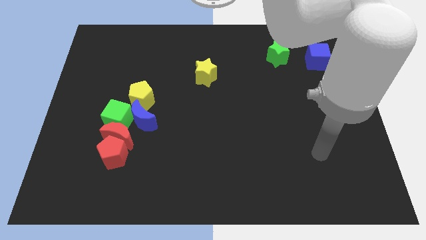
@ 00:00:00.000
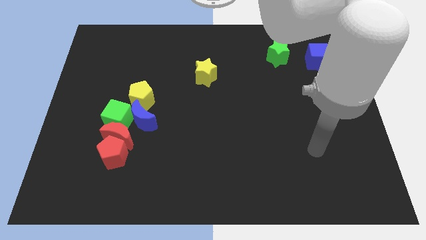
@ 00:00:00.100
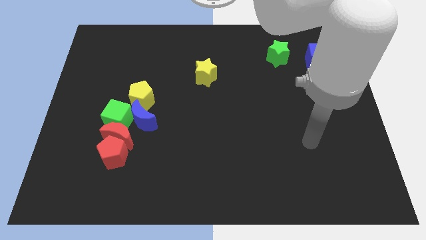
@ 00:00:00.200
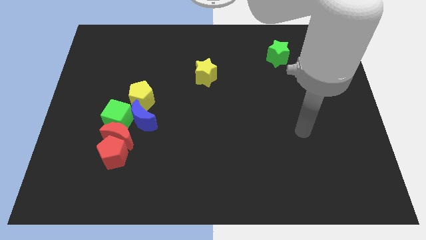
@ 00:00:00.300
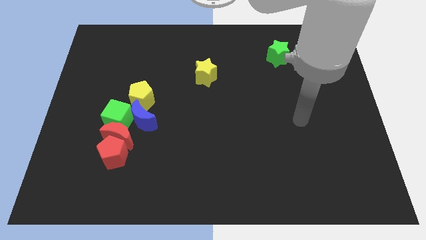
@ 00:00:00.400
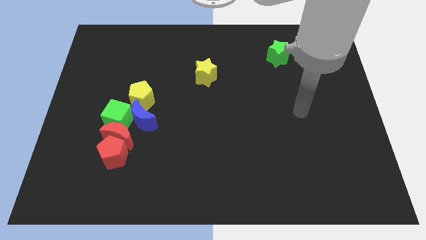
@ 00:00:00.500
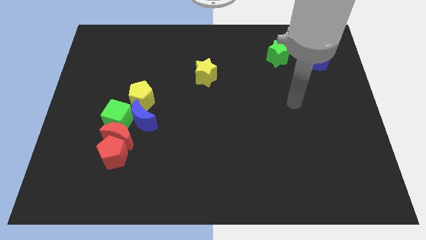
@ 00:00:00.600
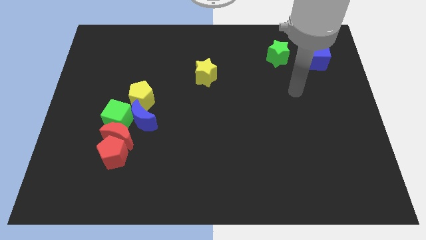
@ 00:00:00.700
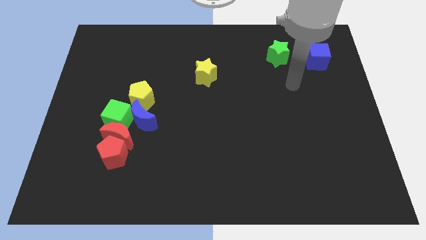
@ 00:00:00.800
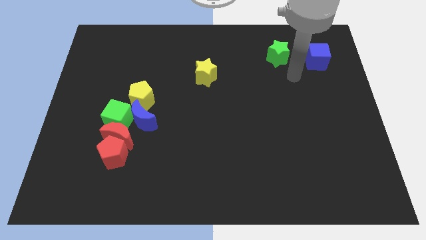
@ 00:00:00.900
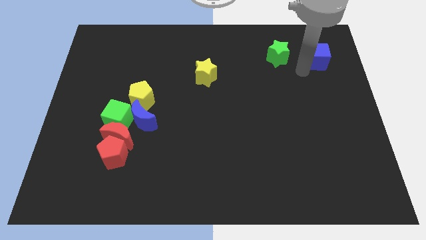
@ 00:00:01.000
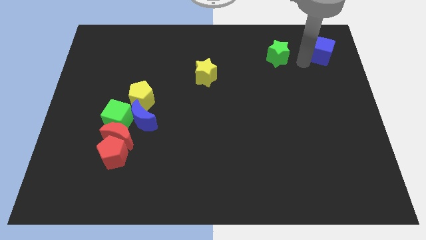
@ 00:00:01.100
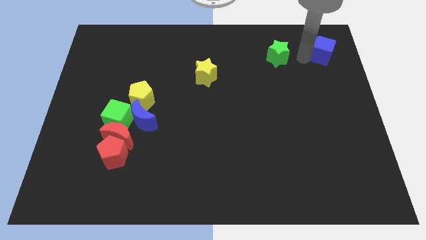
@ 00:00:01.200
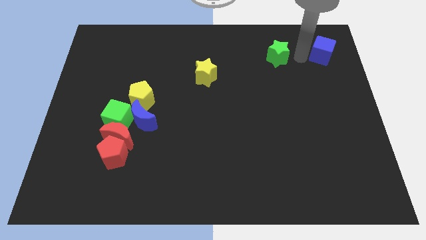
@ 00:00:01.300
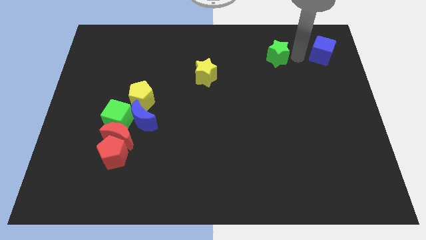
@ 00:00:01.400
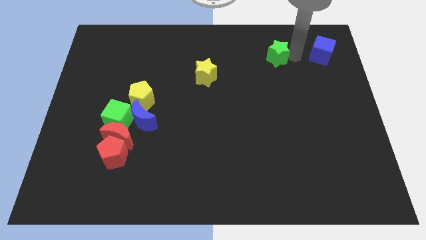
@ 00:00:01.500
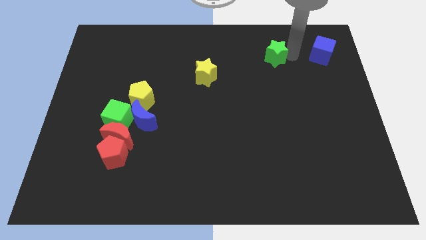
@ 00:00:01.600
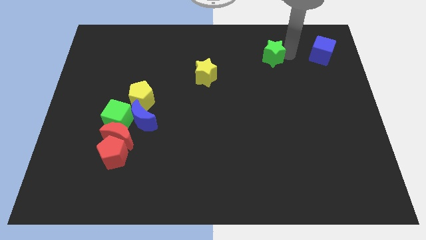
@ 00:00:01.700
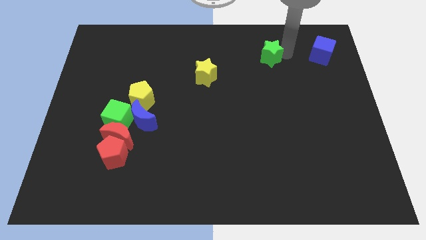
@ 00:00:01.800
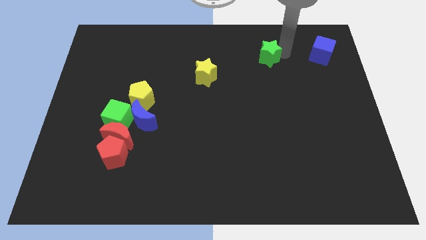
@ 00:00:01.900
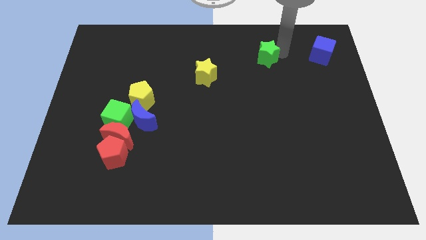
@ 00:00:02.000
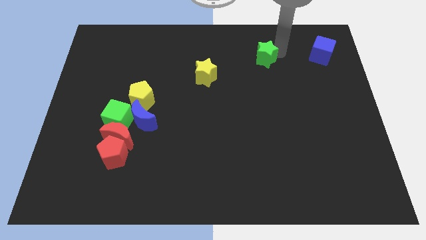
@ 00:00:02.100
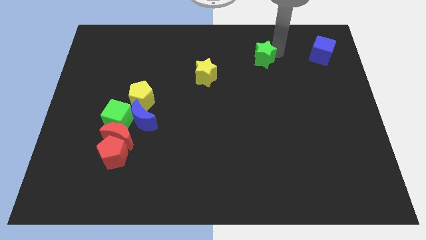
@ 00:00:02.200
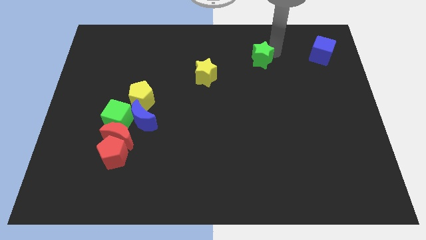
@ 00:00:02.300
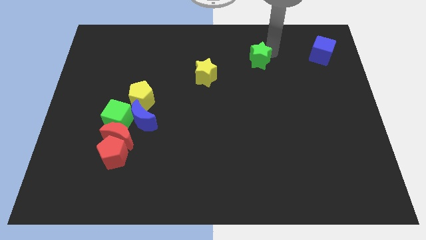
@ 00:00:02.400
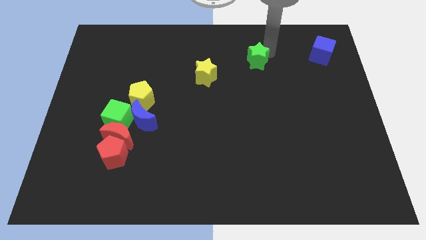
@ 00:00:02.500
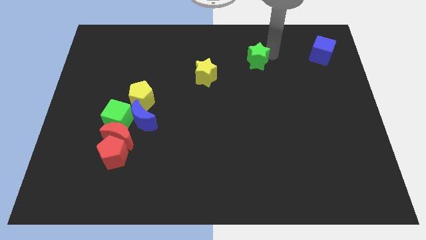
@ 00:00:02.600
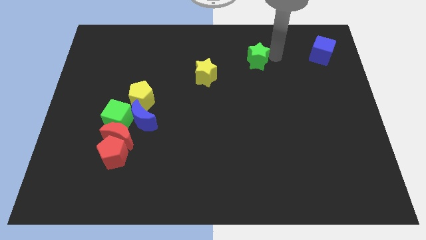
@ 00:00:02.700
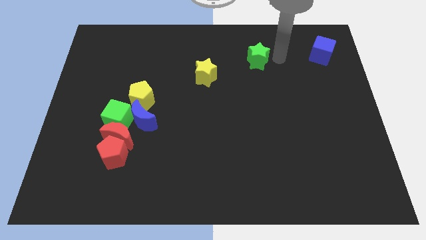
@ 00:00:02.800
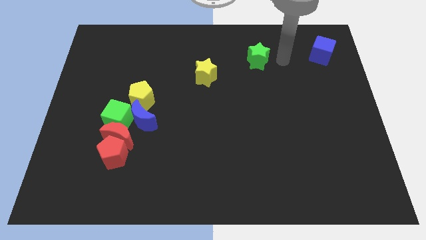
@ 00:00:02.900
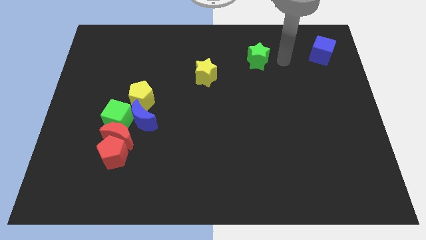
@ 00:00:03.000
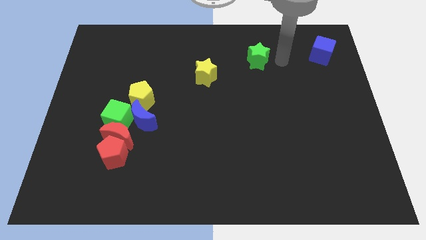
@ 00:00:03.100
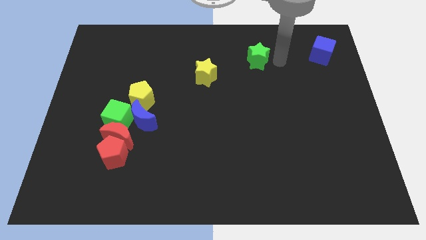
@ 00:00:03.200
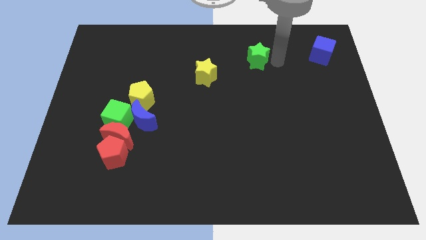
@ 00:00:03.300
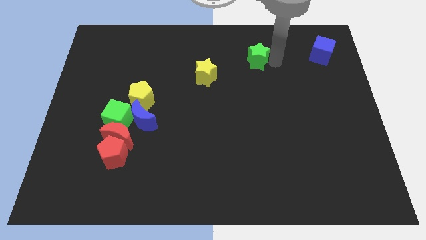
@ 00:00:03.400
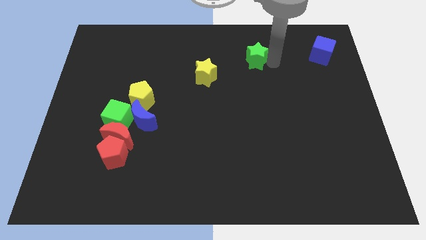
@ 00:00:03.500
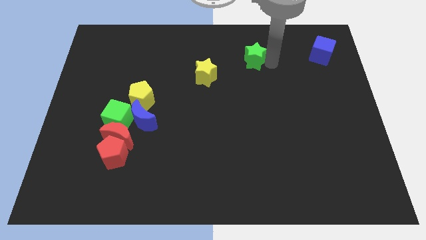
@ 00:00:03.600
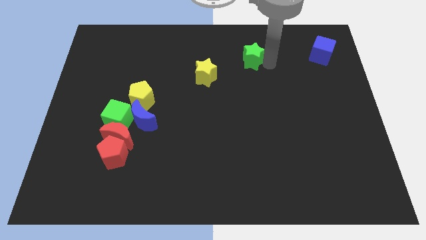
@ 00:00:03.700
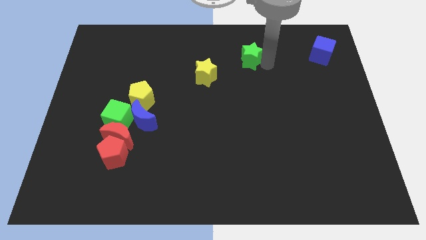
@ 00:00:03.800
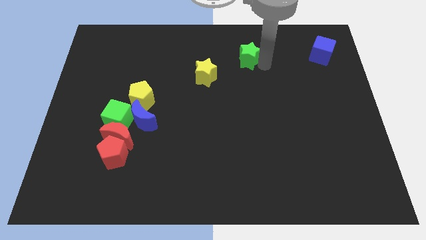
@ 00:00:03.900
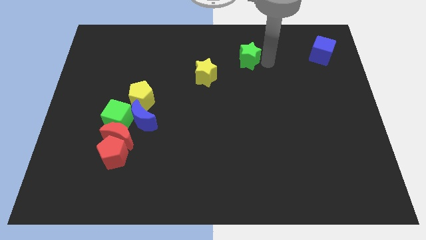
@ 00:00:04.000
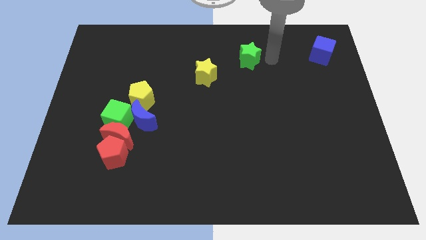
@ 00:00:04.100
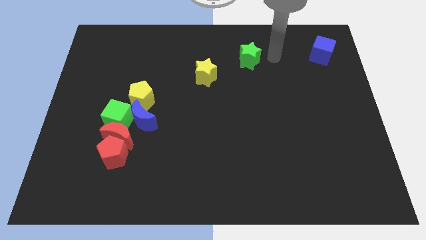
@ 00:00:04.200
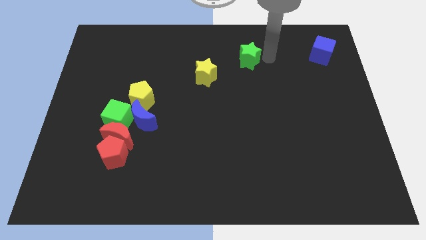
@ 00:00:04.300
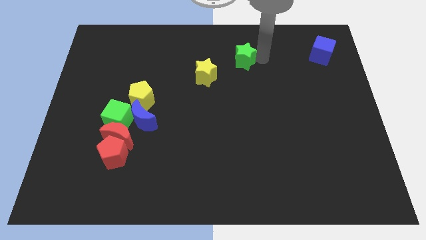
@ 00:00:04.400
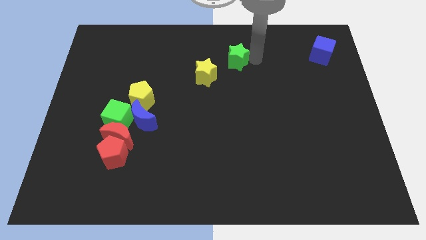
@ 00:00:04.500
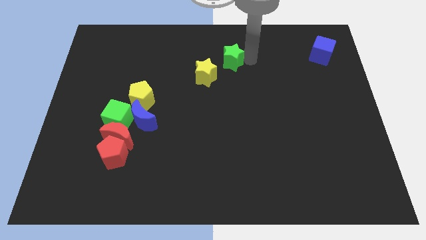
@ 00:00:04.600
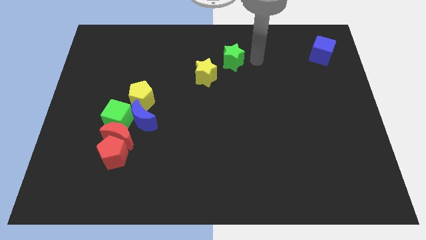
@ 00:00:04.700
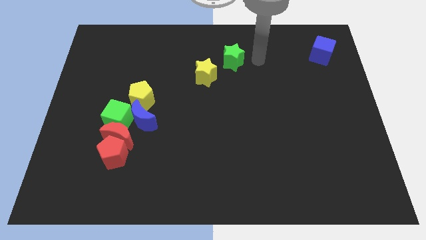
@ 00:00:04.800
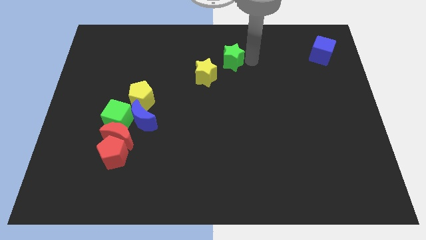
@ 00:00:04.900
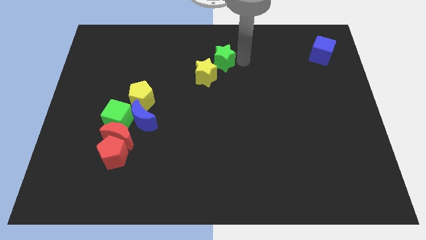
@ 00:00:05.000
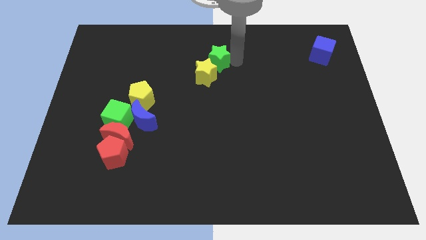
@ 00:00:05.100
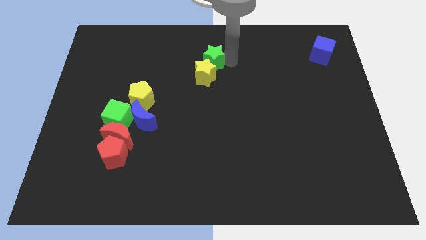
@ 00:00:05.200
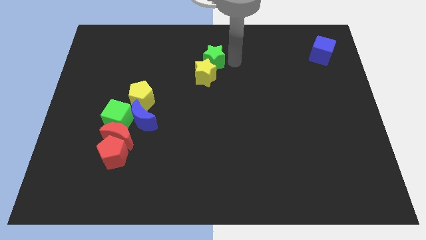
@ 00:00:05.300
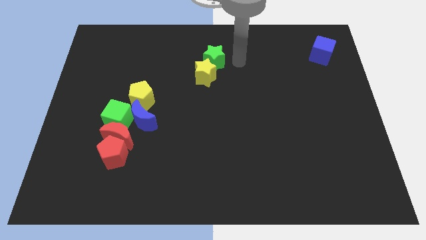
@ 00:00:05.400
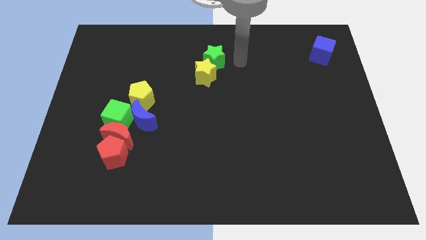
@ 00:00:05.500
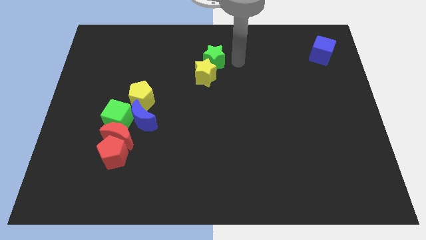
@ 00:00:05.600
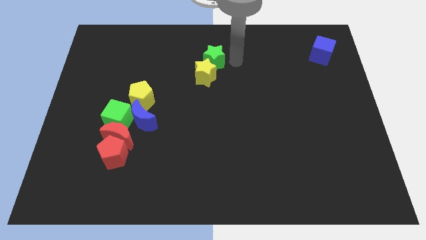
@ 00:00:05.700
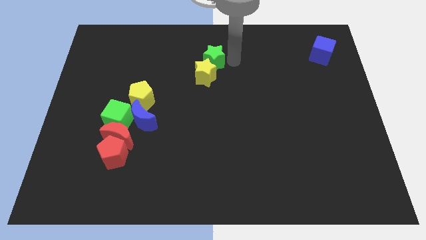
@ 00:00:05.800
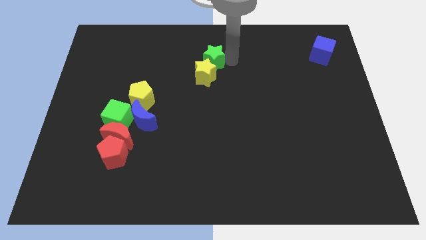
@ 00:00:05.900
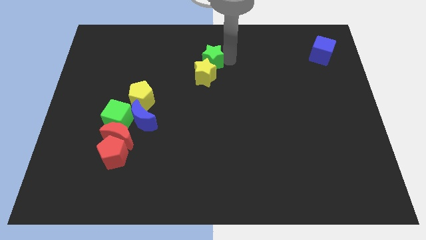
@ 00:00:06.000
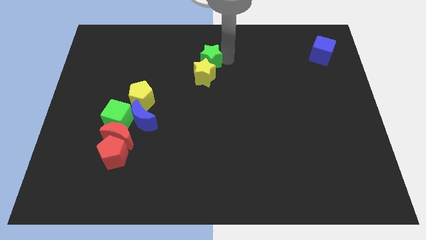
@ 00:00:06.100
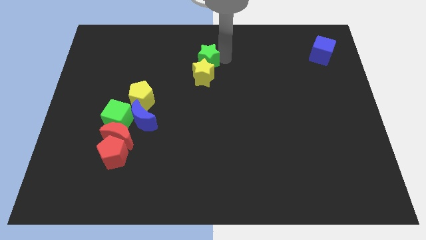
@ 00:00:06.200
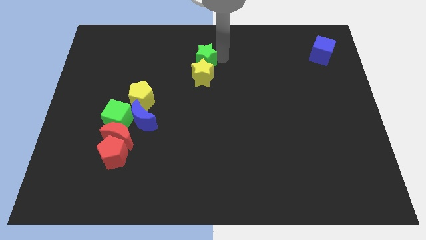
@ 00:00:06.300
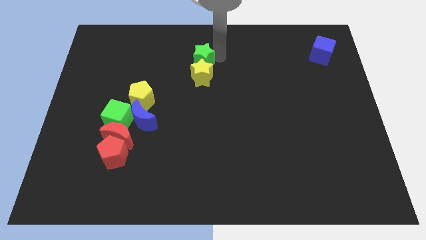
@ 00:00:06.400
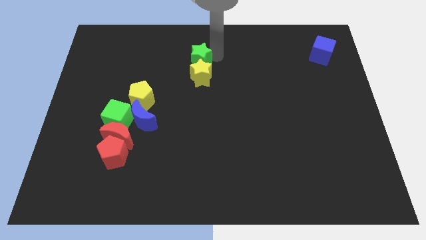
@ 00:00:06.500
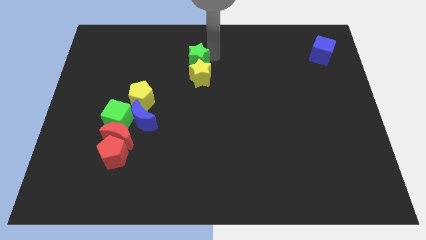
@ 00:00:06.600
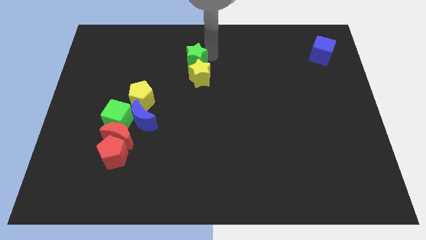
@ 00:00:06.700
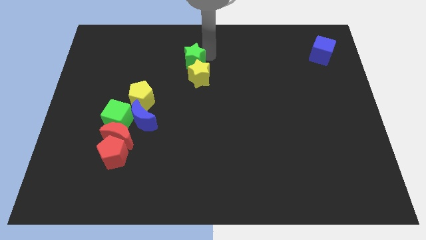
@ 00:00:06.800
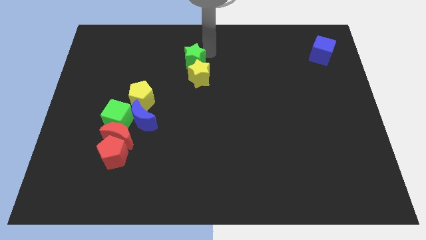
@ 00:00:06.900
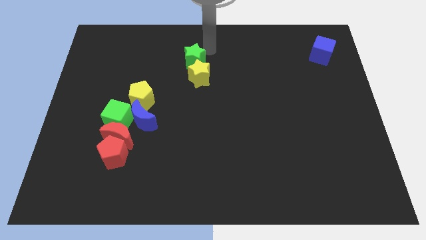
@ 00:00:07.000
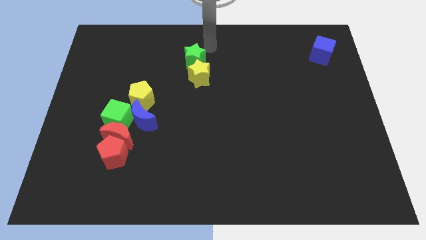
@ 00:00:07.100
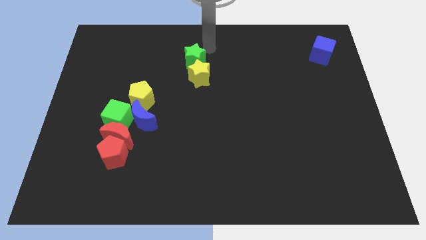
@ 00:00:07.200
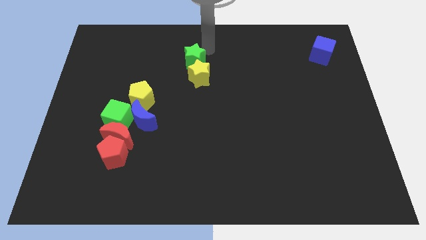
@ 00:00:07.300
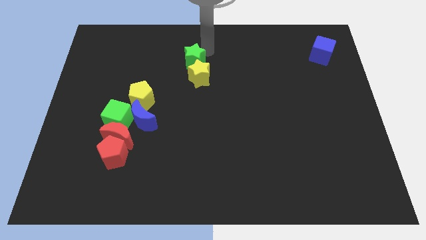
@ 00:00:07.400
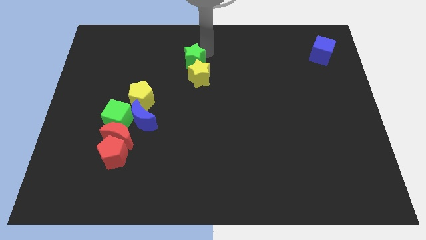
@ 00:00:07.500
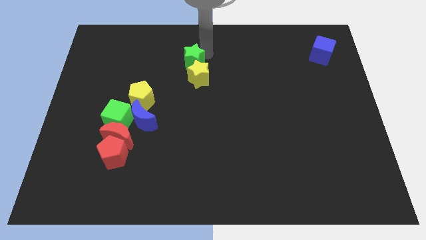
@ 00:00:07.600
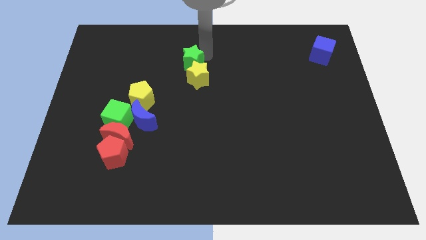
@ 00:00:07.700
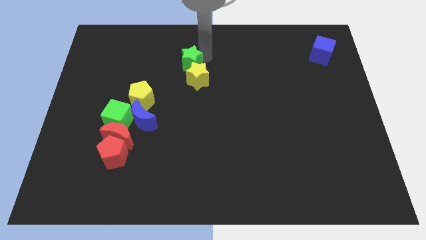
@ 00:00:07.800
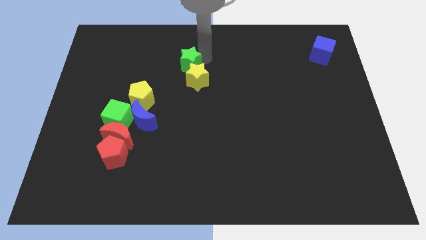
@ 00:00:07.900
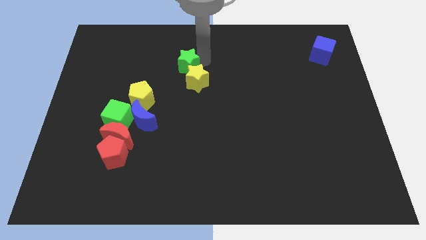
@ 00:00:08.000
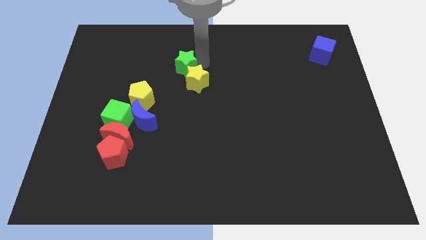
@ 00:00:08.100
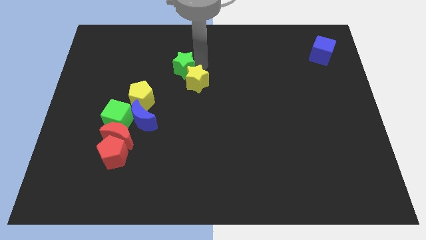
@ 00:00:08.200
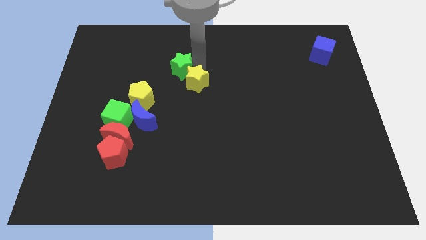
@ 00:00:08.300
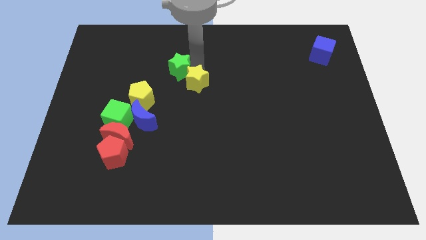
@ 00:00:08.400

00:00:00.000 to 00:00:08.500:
slide the green star to the top right of the yellow pentagon
